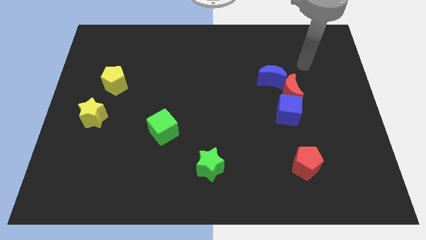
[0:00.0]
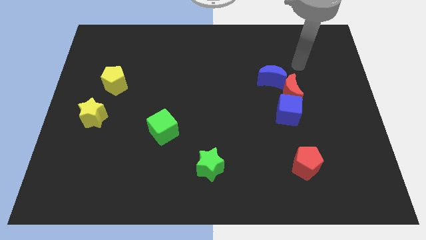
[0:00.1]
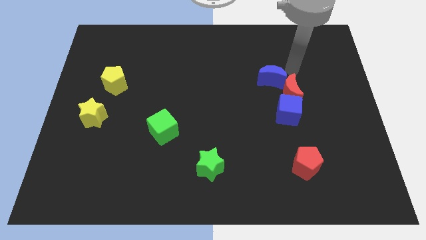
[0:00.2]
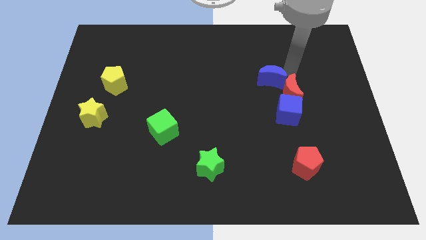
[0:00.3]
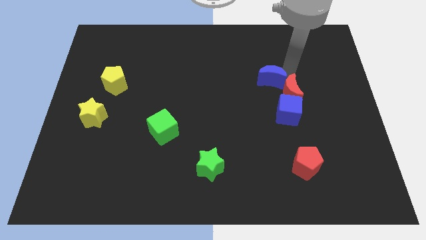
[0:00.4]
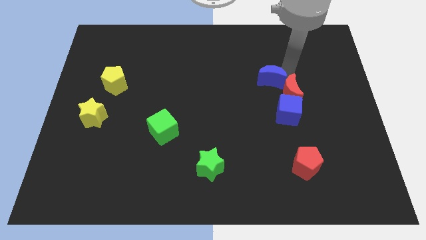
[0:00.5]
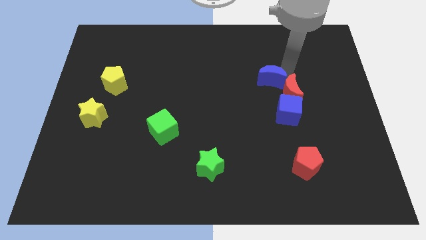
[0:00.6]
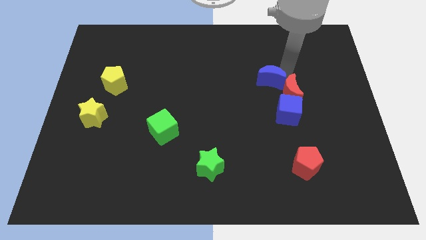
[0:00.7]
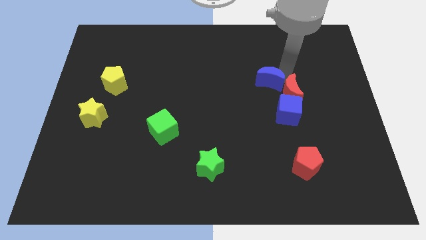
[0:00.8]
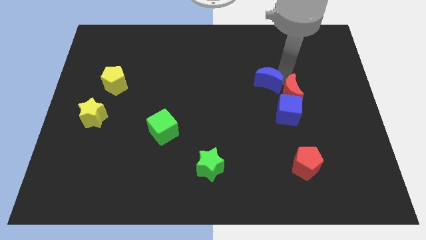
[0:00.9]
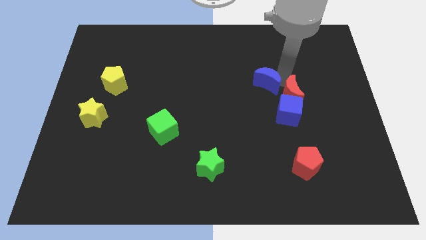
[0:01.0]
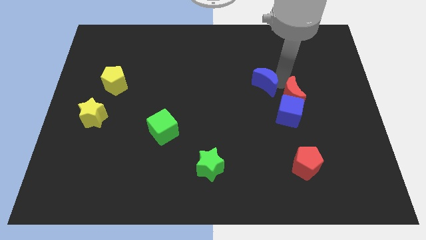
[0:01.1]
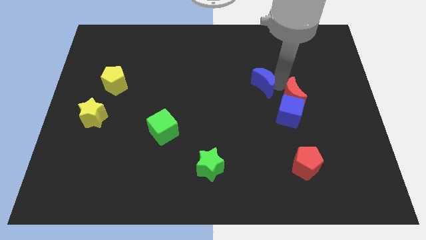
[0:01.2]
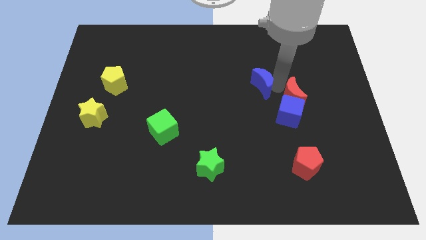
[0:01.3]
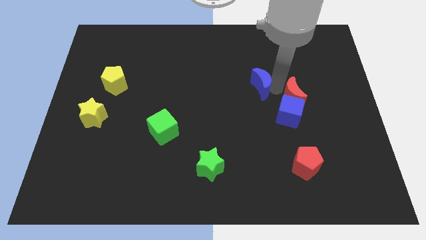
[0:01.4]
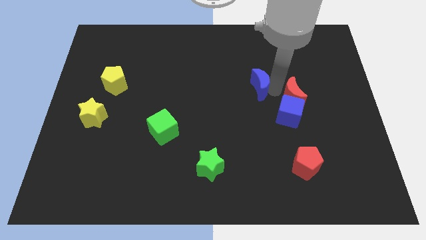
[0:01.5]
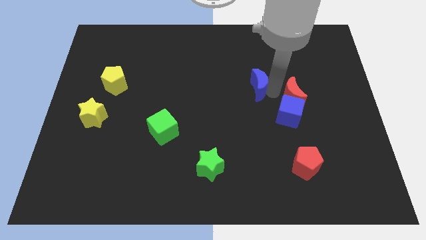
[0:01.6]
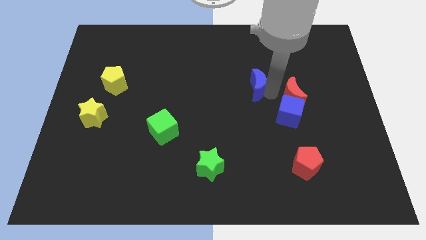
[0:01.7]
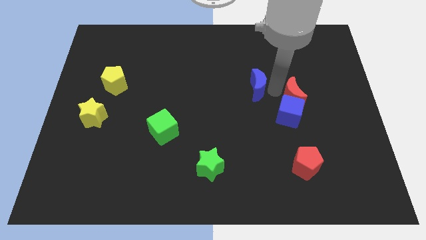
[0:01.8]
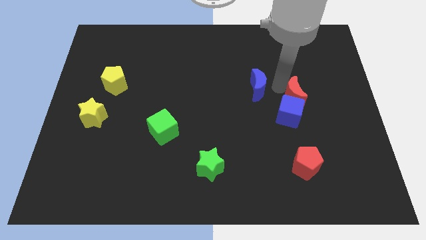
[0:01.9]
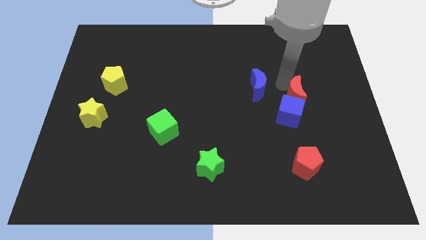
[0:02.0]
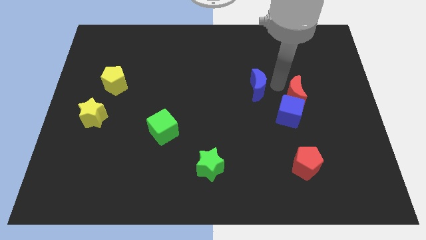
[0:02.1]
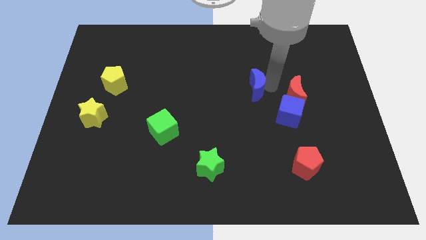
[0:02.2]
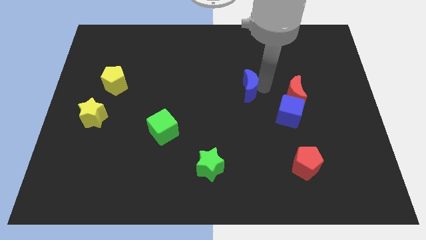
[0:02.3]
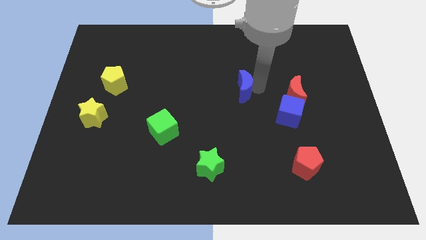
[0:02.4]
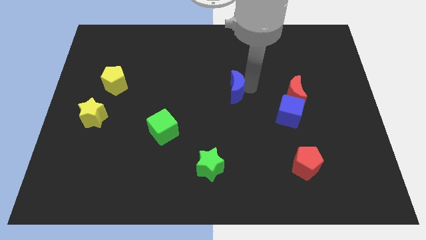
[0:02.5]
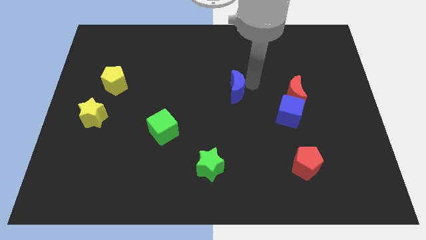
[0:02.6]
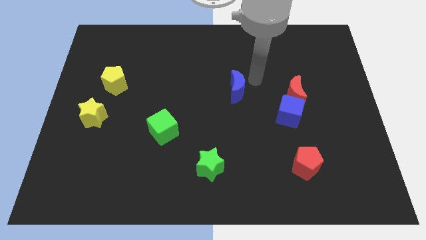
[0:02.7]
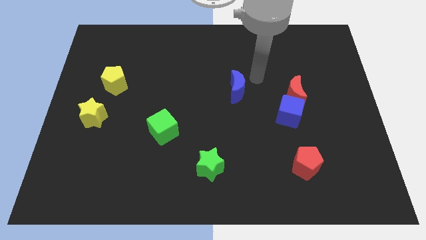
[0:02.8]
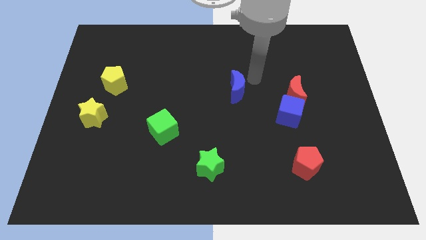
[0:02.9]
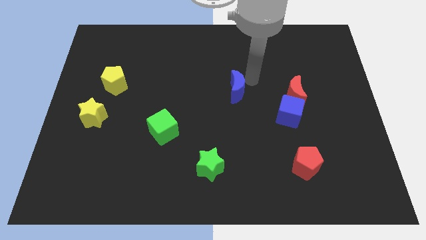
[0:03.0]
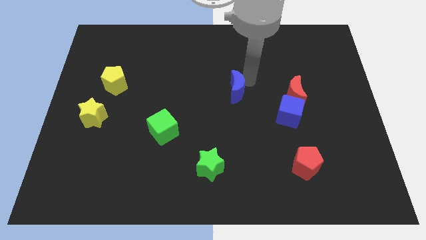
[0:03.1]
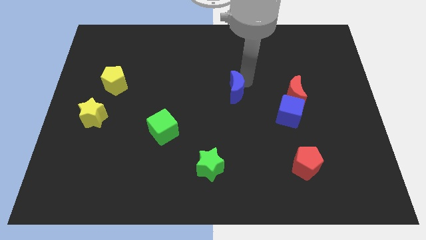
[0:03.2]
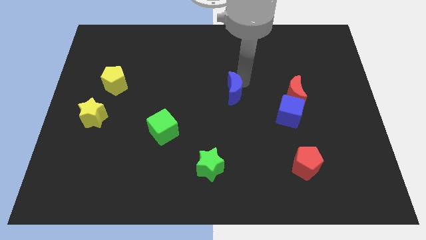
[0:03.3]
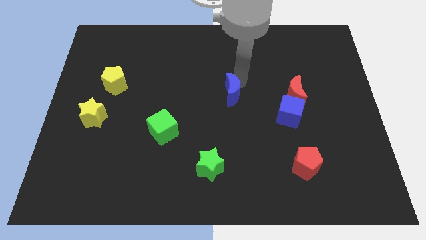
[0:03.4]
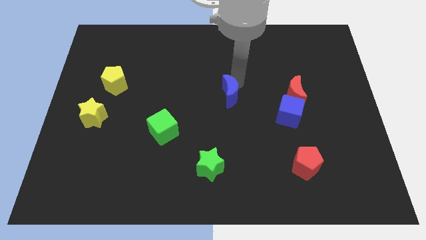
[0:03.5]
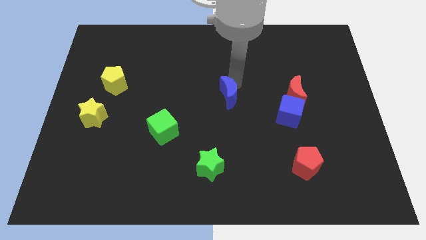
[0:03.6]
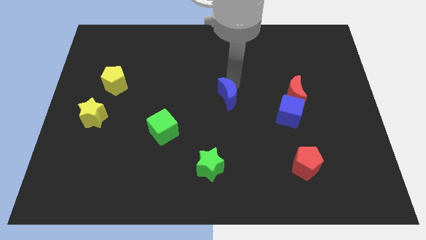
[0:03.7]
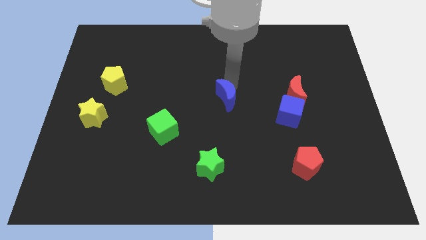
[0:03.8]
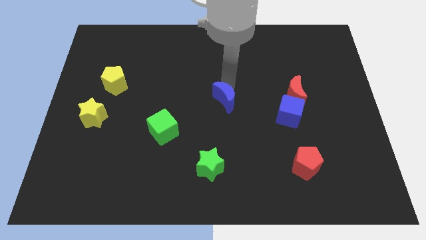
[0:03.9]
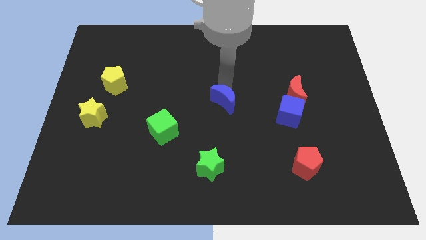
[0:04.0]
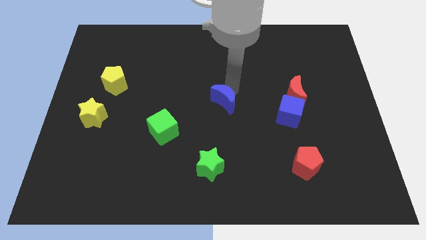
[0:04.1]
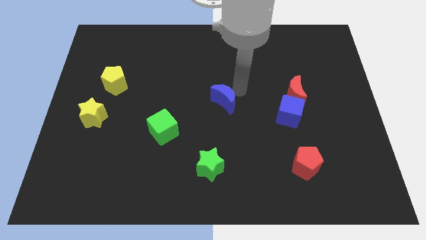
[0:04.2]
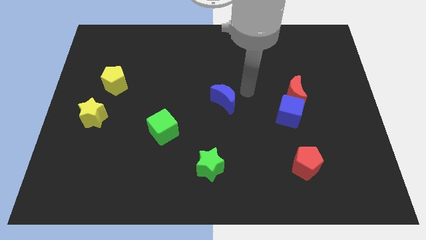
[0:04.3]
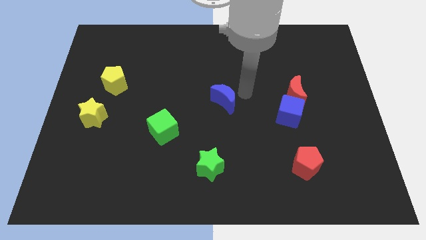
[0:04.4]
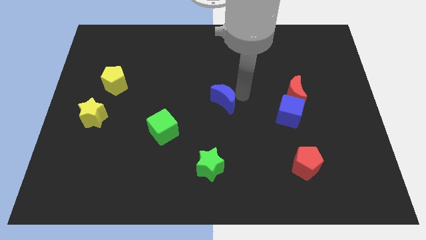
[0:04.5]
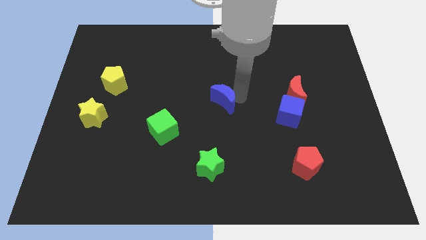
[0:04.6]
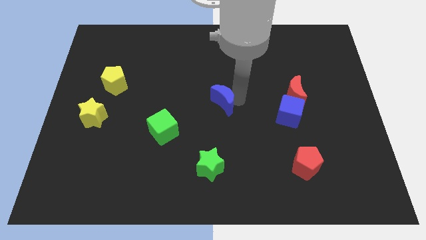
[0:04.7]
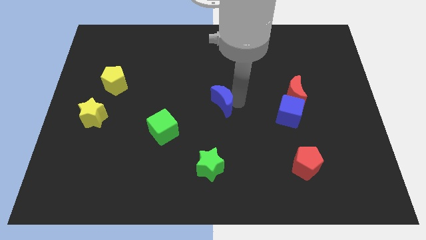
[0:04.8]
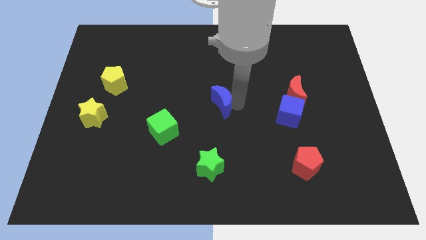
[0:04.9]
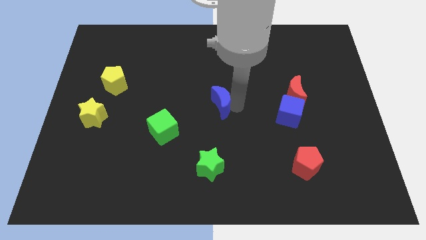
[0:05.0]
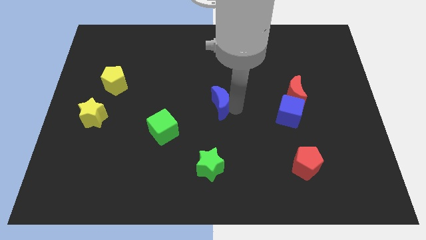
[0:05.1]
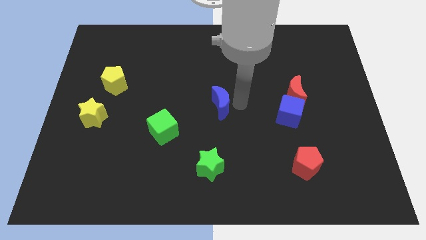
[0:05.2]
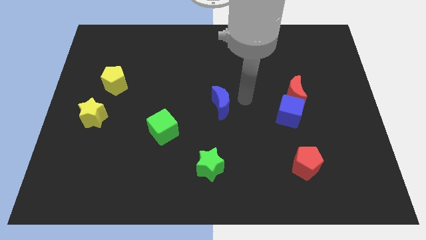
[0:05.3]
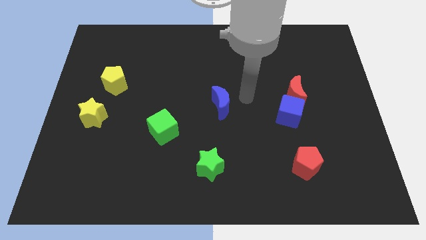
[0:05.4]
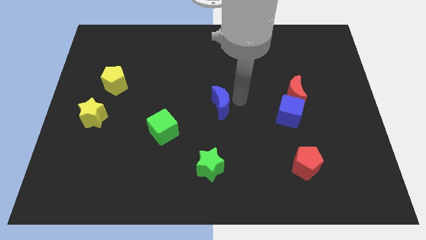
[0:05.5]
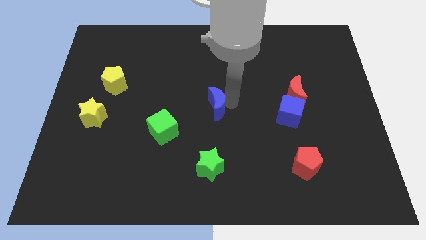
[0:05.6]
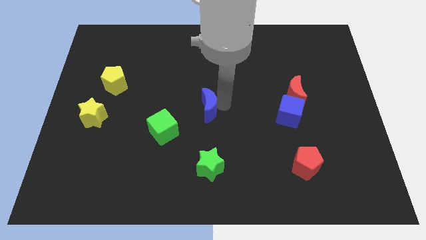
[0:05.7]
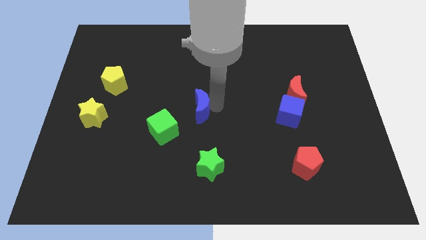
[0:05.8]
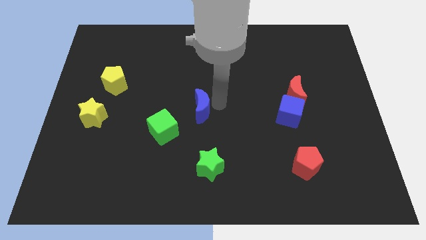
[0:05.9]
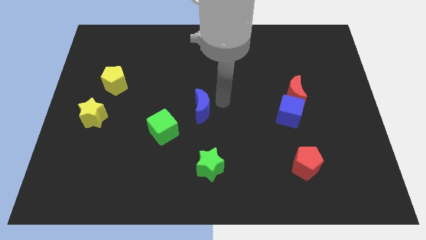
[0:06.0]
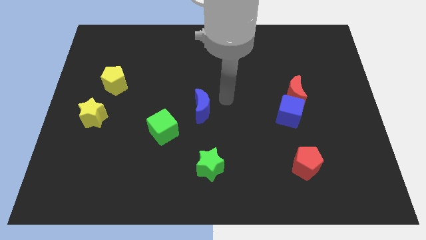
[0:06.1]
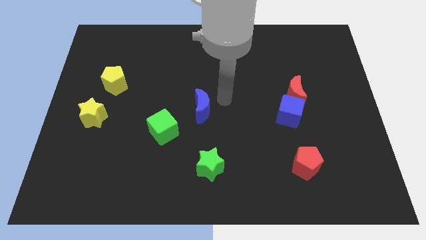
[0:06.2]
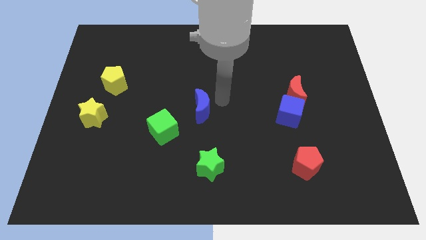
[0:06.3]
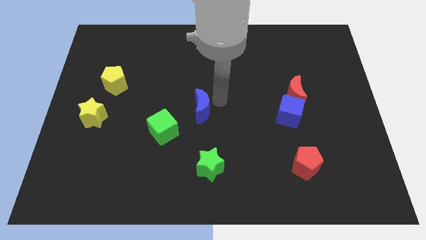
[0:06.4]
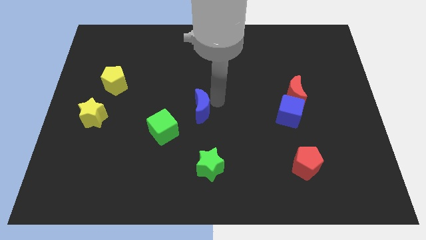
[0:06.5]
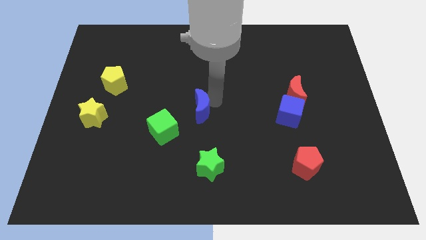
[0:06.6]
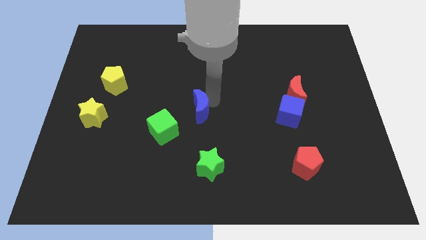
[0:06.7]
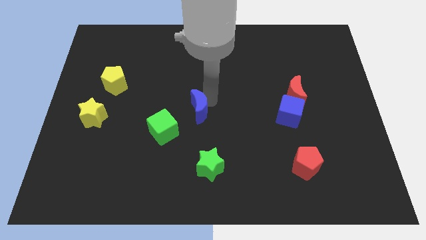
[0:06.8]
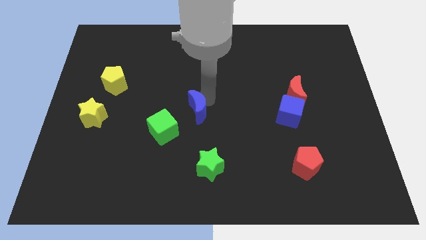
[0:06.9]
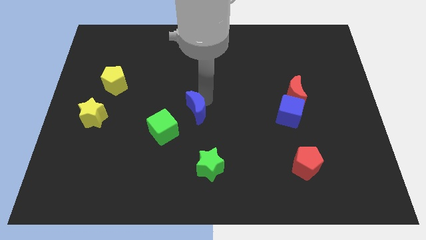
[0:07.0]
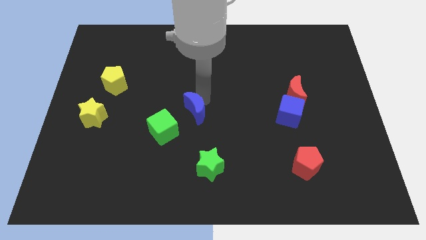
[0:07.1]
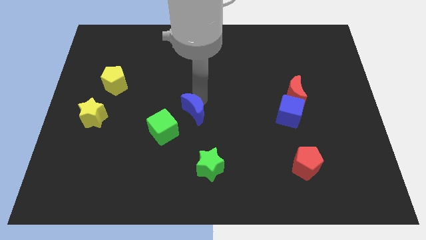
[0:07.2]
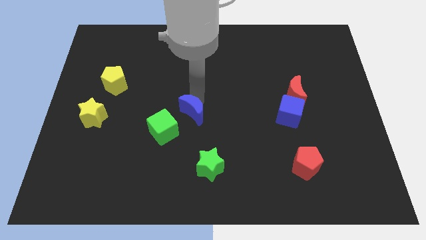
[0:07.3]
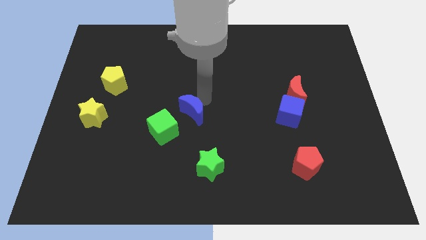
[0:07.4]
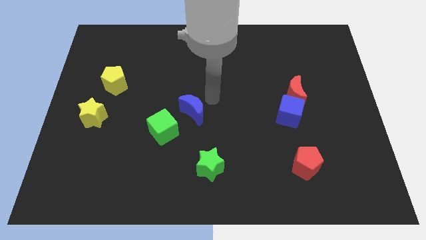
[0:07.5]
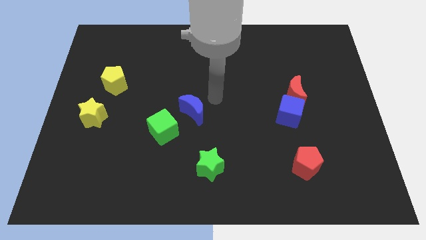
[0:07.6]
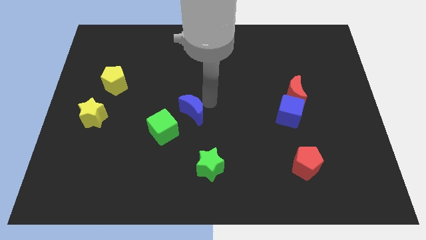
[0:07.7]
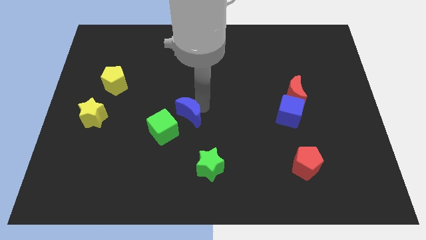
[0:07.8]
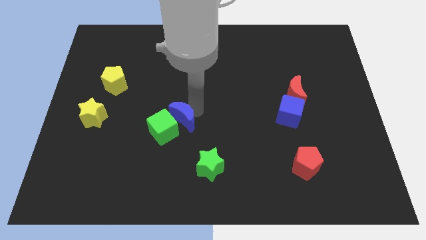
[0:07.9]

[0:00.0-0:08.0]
move the blue moon to the green cube
